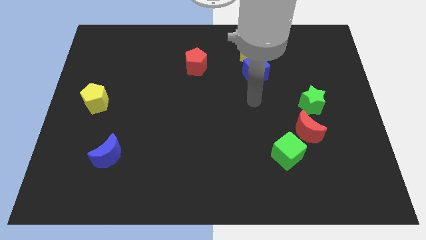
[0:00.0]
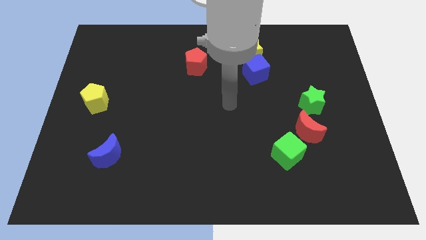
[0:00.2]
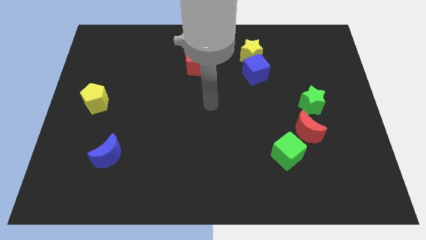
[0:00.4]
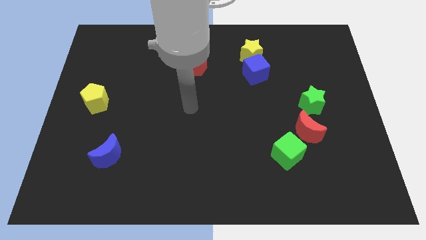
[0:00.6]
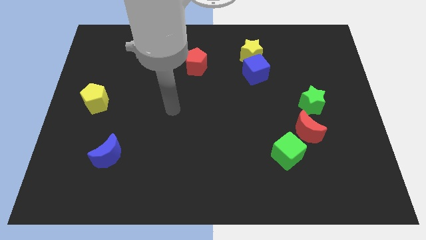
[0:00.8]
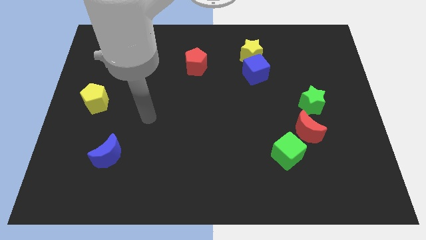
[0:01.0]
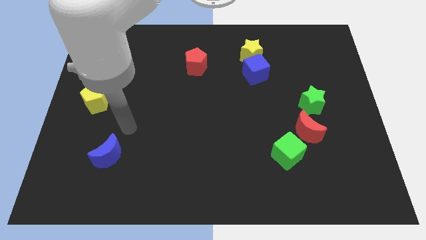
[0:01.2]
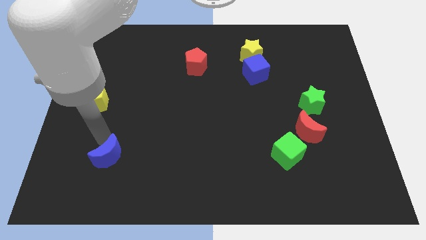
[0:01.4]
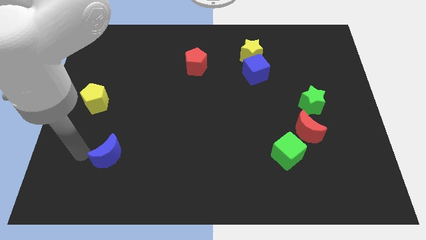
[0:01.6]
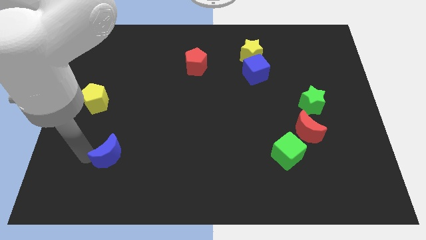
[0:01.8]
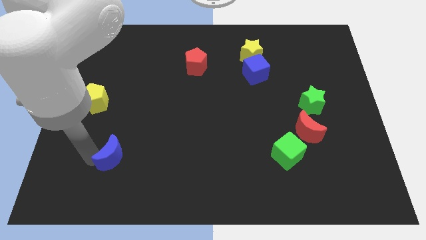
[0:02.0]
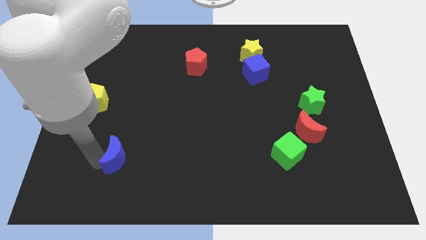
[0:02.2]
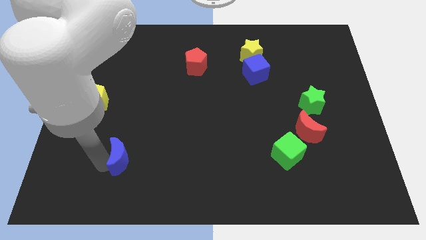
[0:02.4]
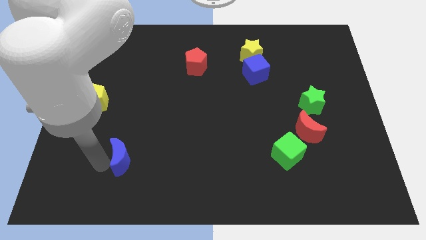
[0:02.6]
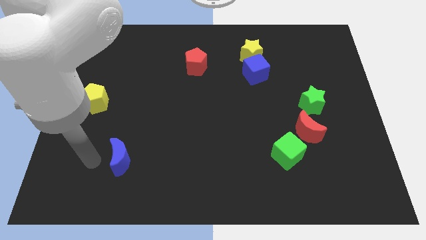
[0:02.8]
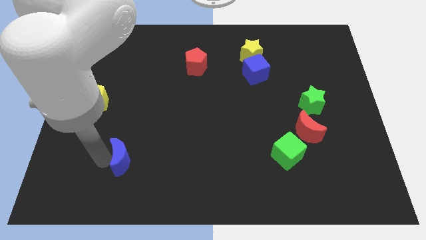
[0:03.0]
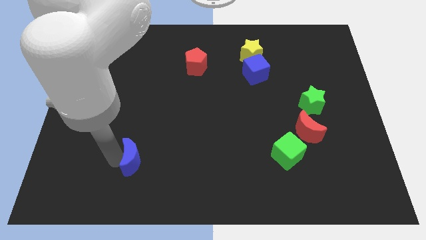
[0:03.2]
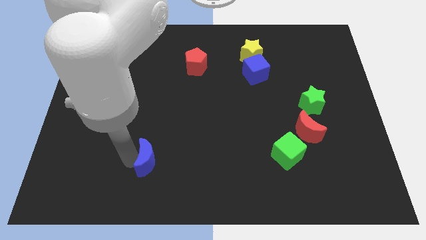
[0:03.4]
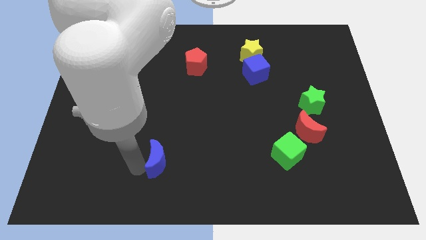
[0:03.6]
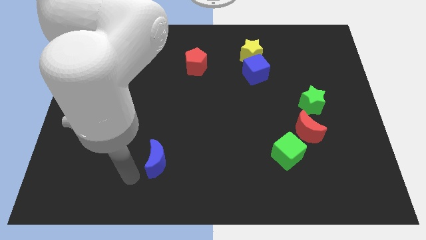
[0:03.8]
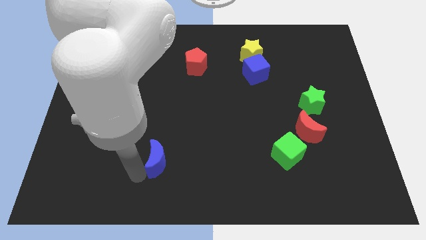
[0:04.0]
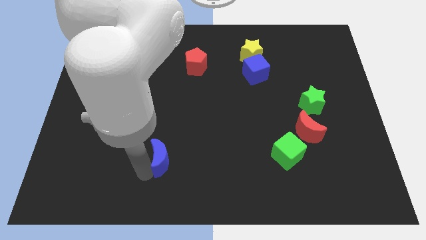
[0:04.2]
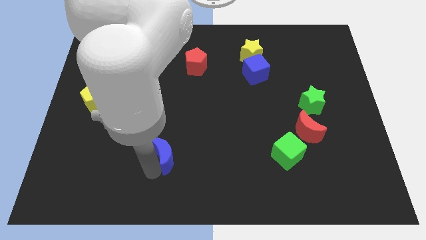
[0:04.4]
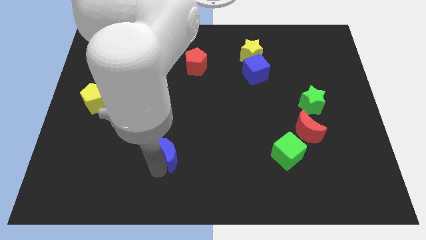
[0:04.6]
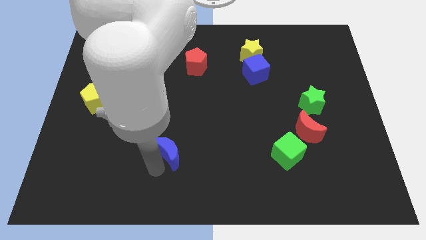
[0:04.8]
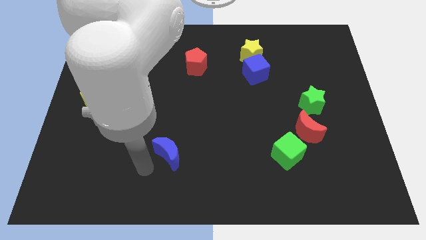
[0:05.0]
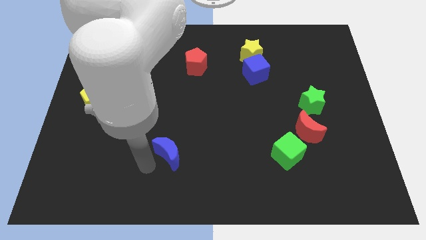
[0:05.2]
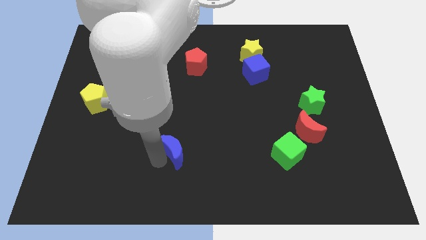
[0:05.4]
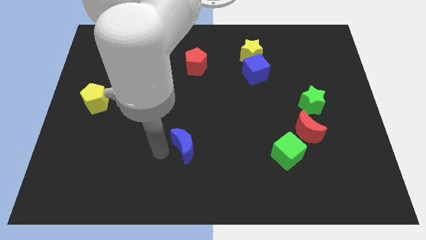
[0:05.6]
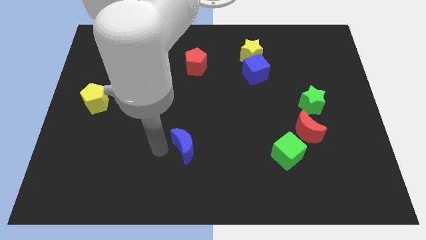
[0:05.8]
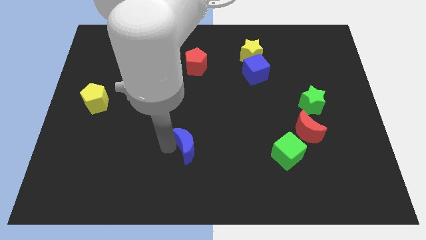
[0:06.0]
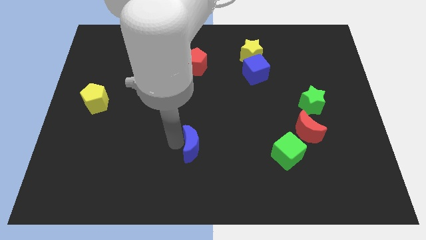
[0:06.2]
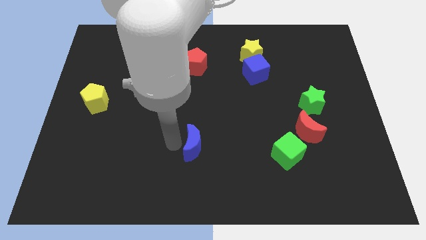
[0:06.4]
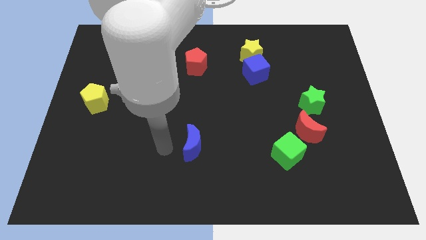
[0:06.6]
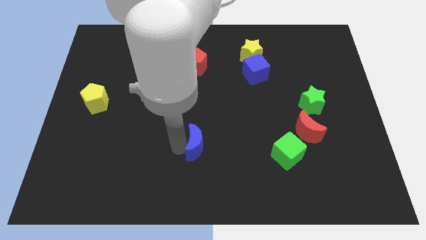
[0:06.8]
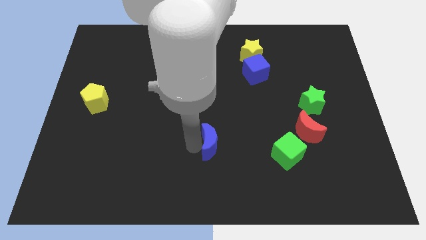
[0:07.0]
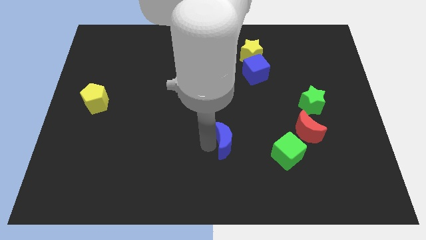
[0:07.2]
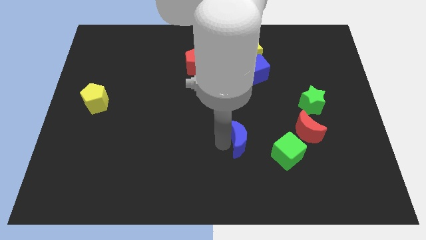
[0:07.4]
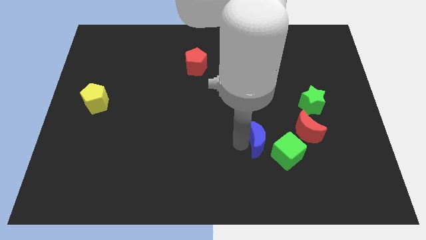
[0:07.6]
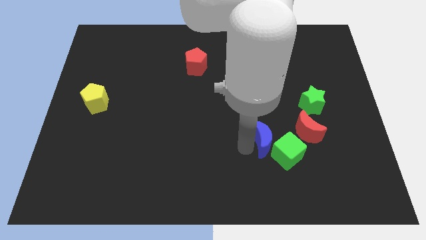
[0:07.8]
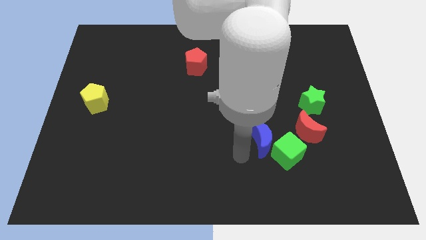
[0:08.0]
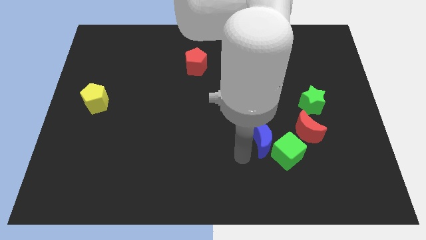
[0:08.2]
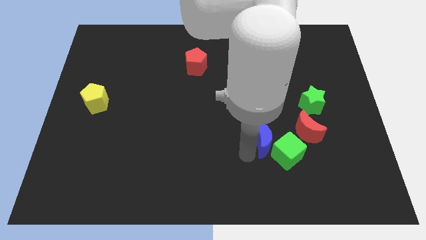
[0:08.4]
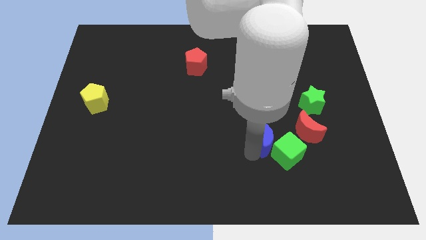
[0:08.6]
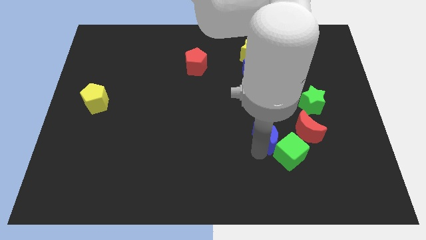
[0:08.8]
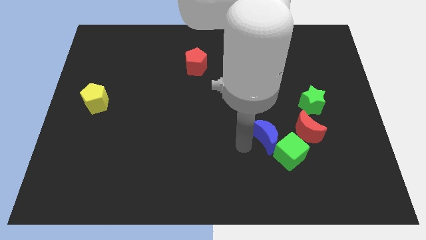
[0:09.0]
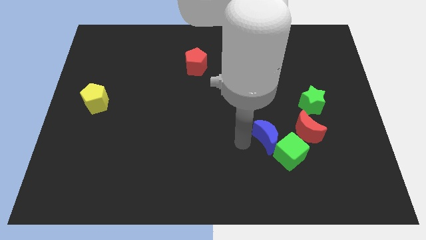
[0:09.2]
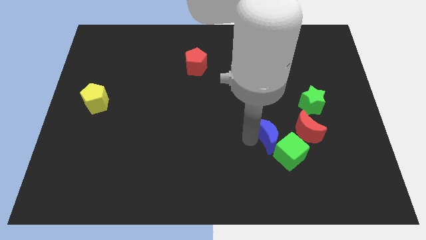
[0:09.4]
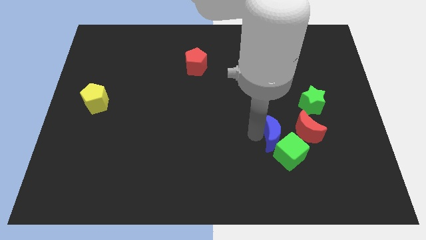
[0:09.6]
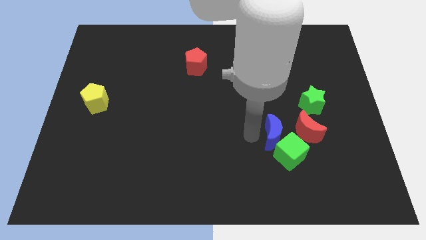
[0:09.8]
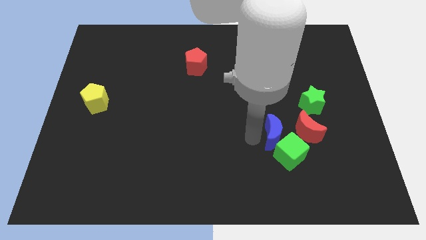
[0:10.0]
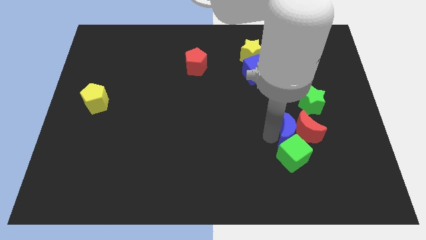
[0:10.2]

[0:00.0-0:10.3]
put the blue moon close to the red moon

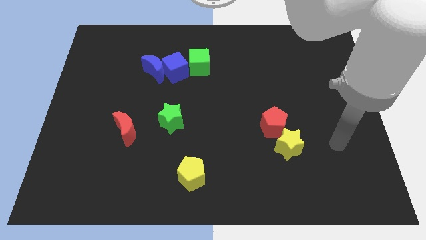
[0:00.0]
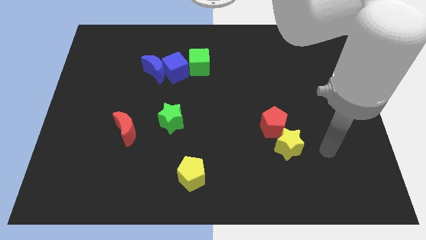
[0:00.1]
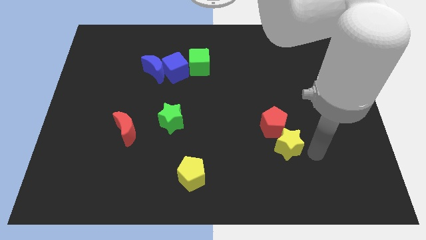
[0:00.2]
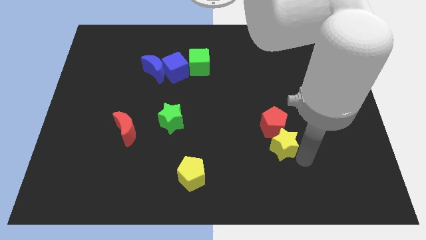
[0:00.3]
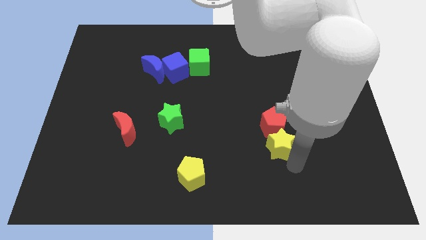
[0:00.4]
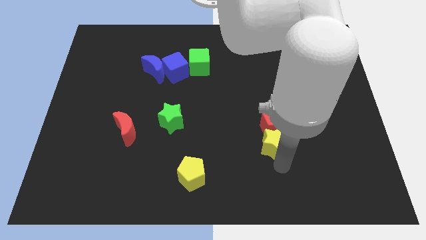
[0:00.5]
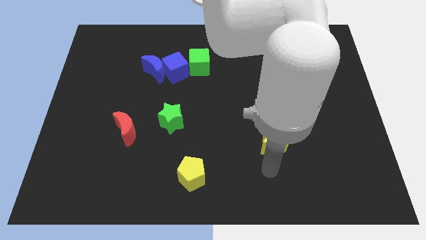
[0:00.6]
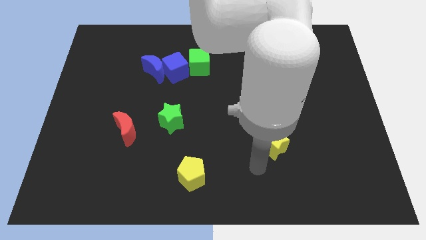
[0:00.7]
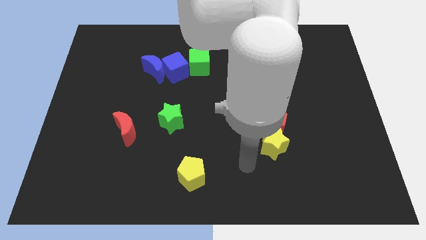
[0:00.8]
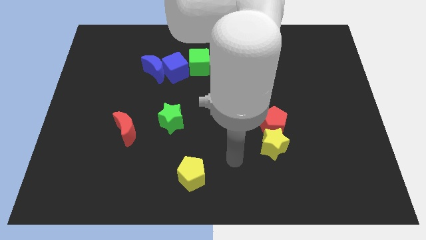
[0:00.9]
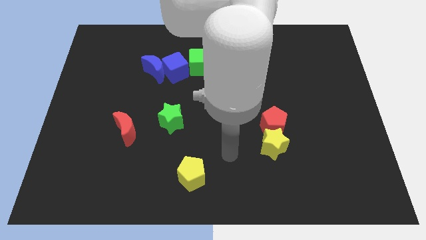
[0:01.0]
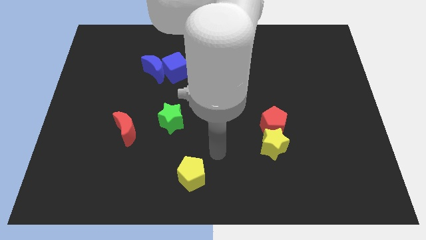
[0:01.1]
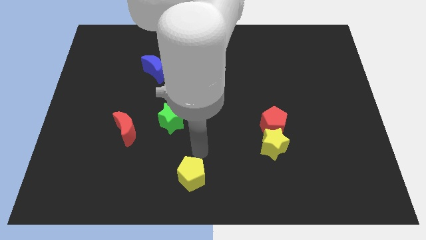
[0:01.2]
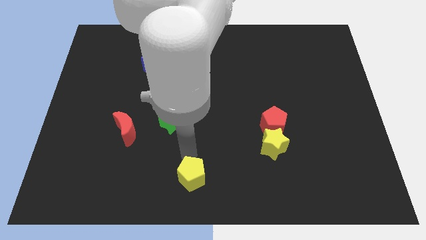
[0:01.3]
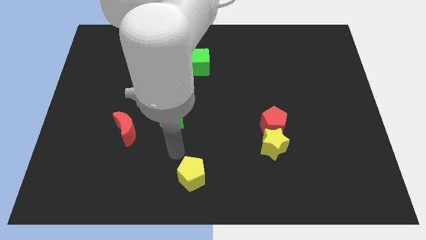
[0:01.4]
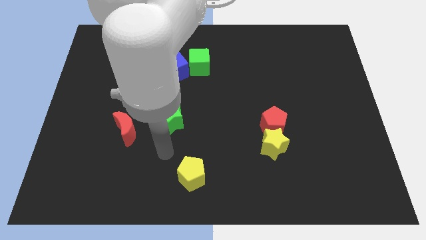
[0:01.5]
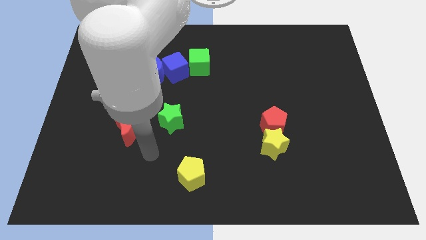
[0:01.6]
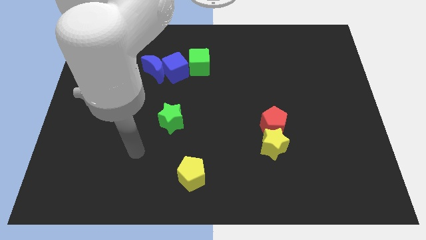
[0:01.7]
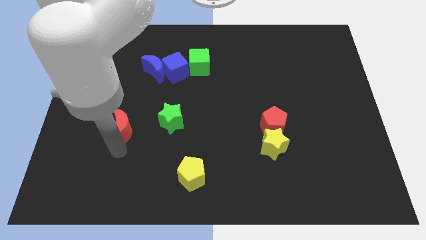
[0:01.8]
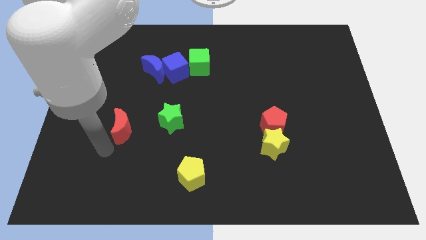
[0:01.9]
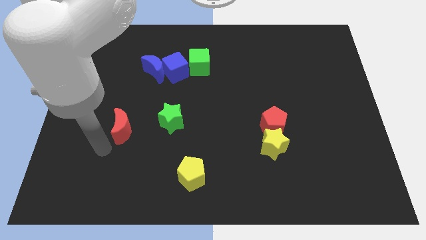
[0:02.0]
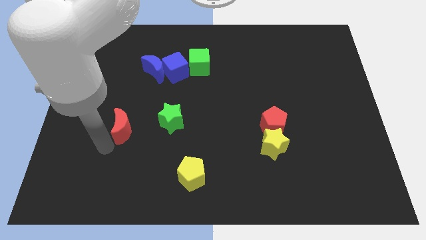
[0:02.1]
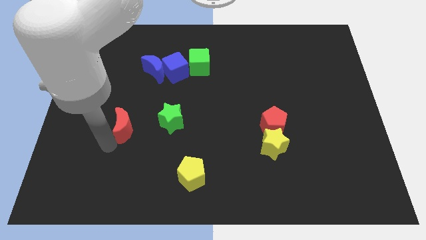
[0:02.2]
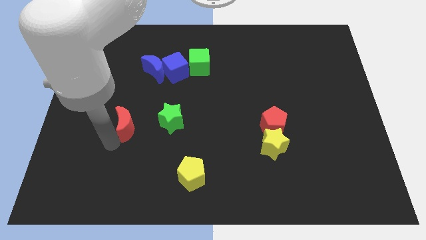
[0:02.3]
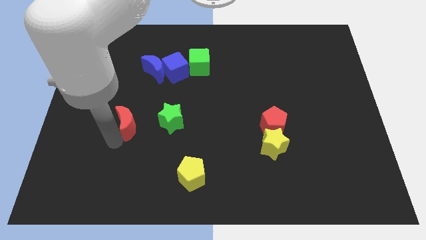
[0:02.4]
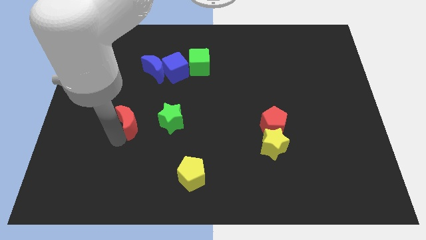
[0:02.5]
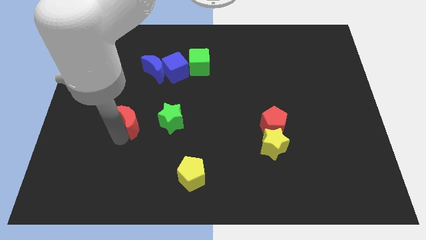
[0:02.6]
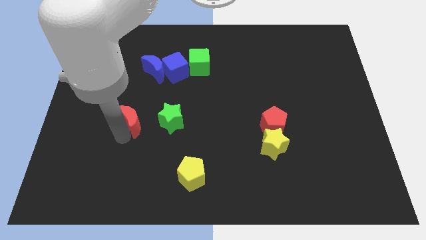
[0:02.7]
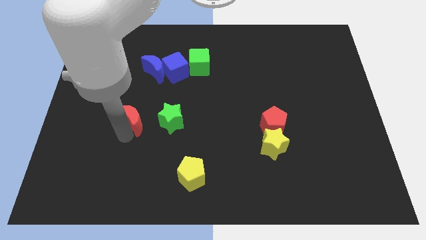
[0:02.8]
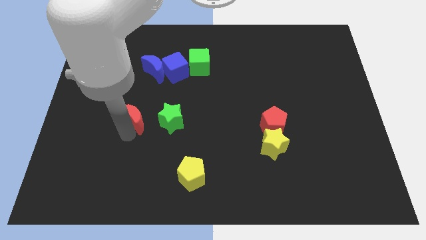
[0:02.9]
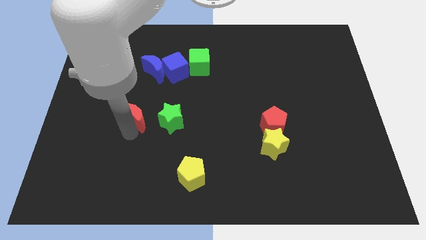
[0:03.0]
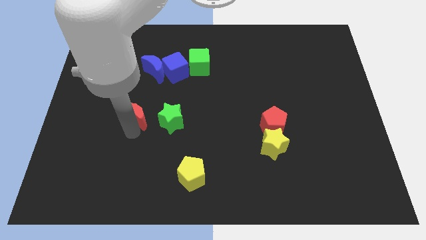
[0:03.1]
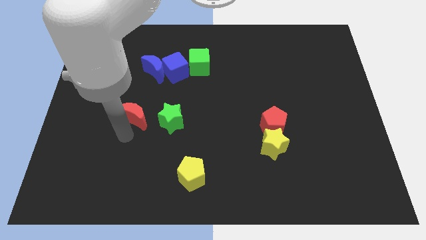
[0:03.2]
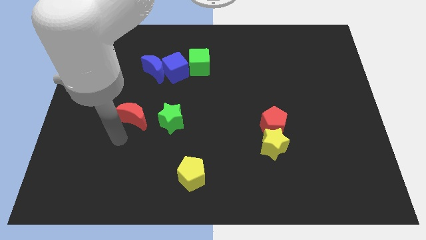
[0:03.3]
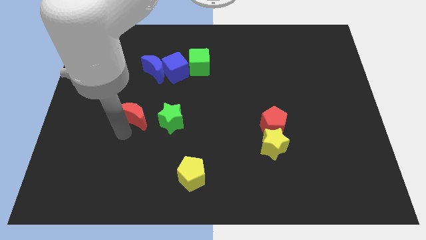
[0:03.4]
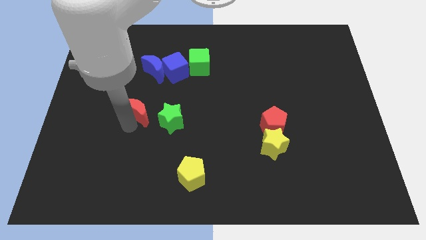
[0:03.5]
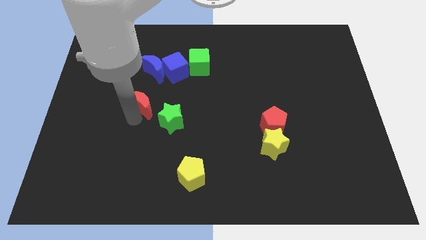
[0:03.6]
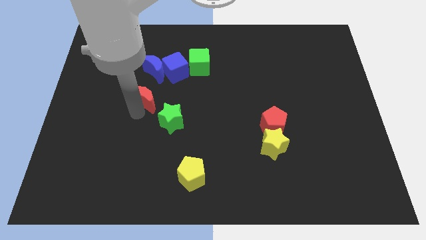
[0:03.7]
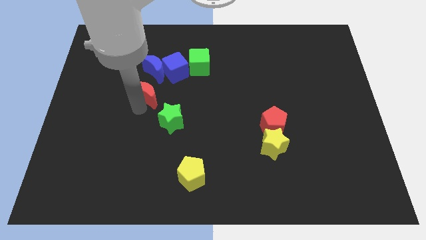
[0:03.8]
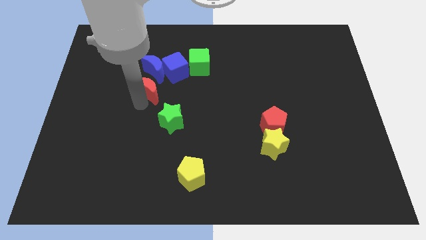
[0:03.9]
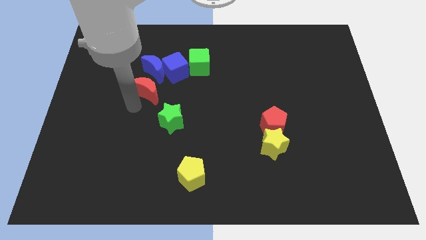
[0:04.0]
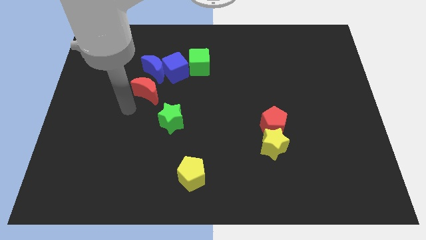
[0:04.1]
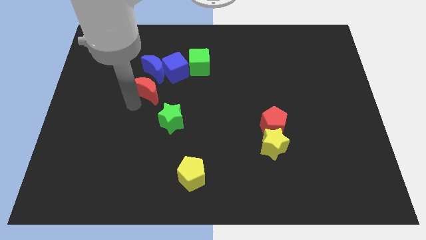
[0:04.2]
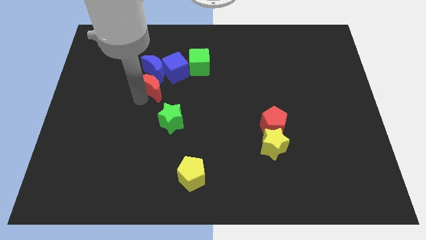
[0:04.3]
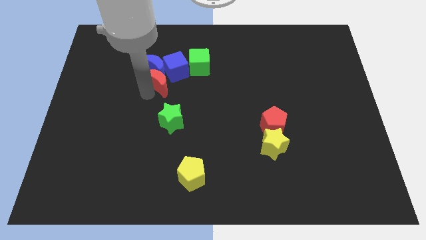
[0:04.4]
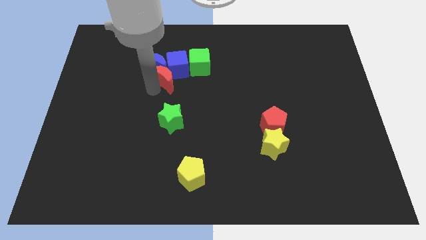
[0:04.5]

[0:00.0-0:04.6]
push the red moon towards the blue cube
